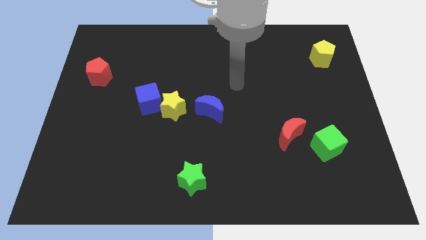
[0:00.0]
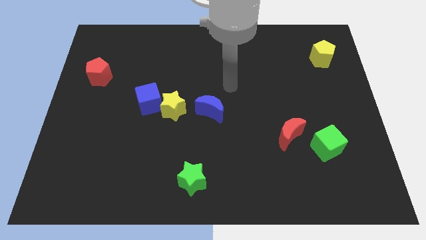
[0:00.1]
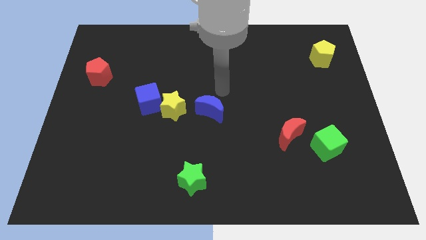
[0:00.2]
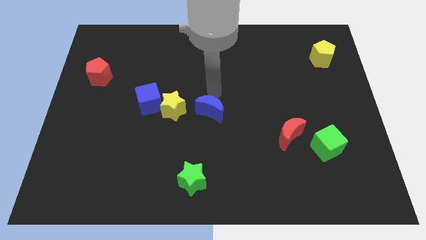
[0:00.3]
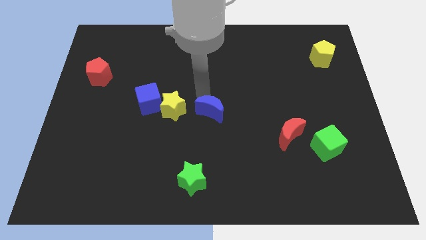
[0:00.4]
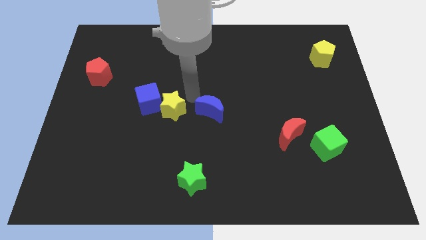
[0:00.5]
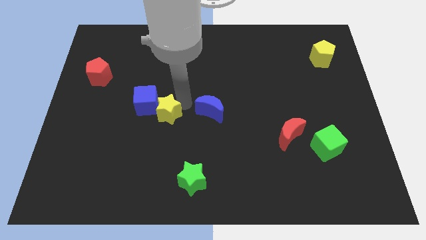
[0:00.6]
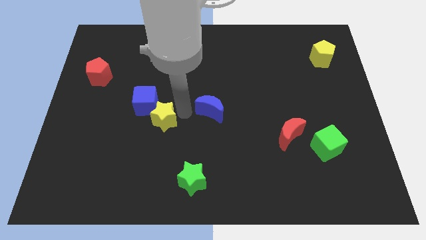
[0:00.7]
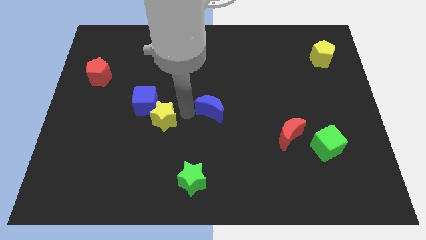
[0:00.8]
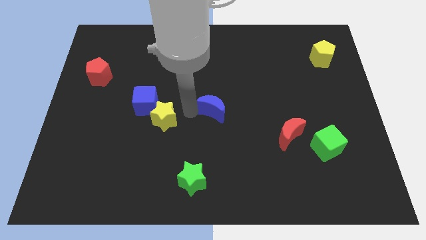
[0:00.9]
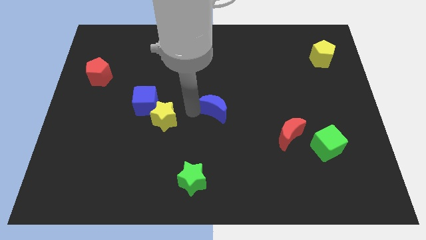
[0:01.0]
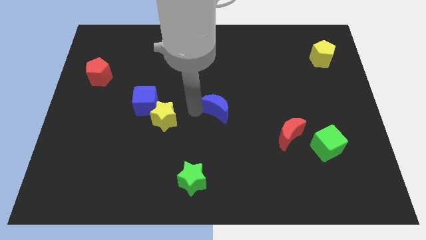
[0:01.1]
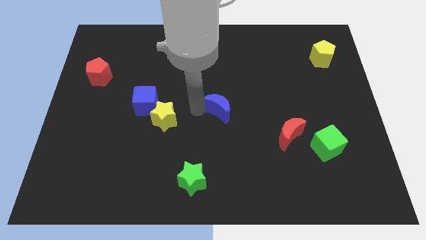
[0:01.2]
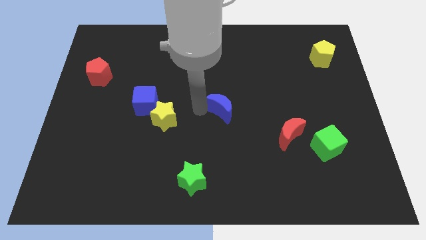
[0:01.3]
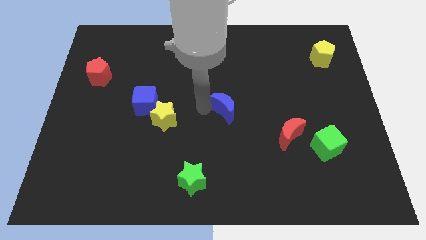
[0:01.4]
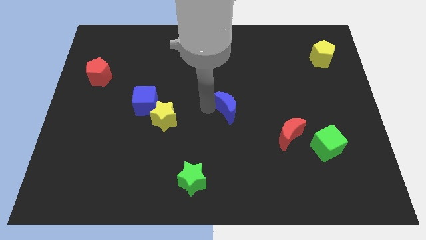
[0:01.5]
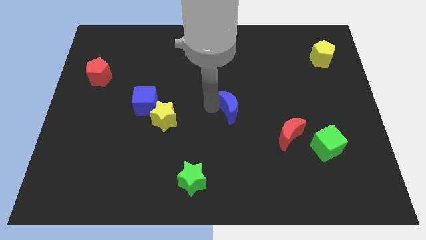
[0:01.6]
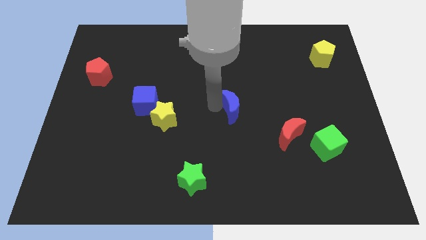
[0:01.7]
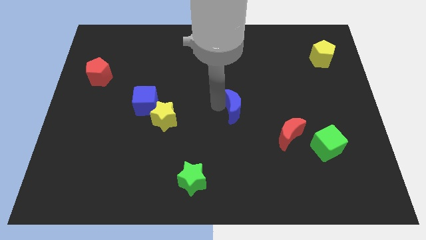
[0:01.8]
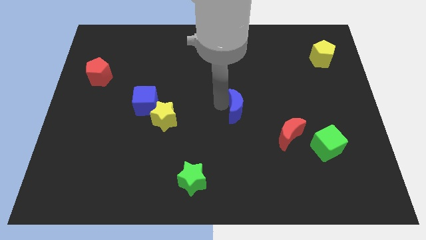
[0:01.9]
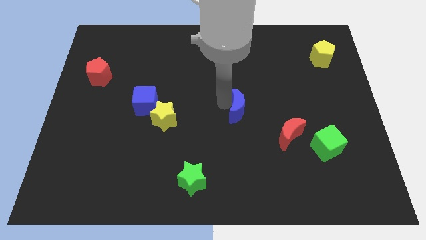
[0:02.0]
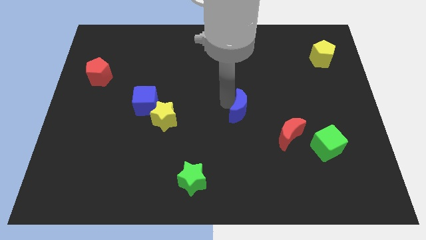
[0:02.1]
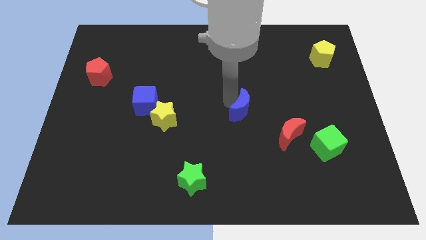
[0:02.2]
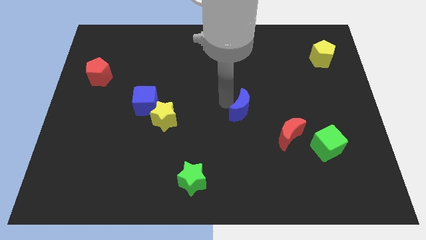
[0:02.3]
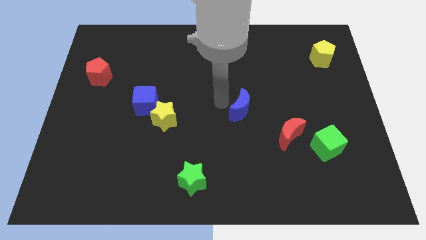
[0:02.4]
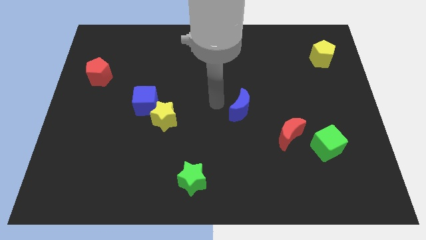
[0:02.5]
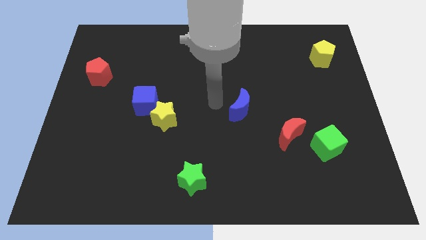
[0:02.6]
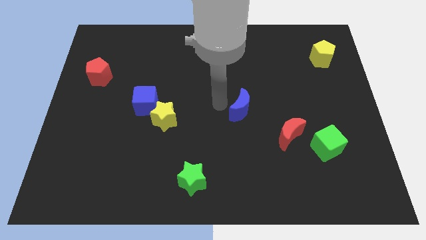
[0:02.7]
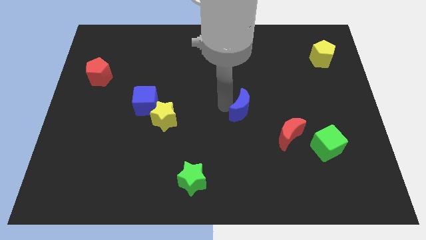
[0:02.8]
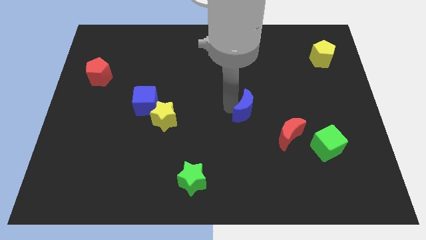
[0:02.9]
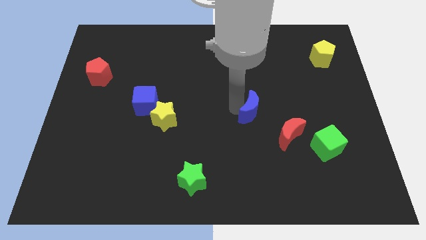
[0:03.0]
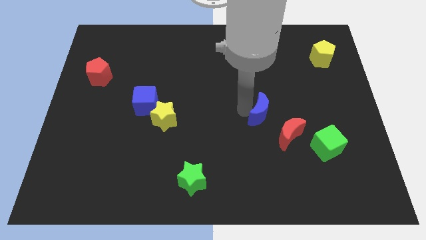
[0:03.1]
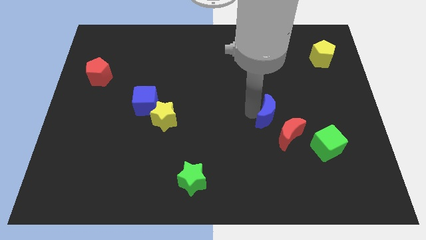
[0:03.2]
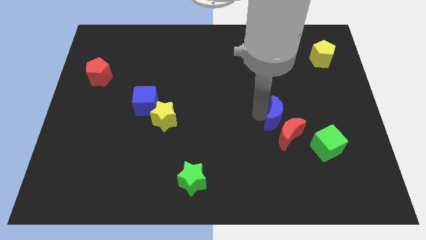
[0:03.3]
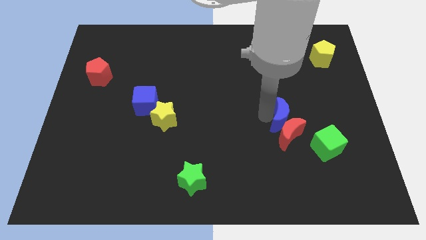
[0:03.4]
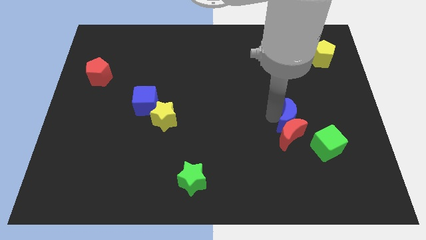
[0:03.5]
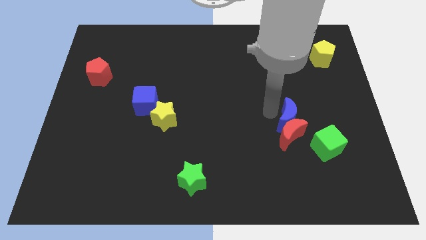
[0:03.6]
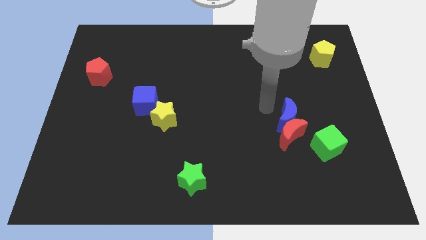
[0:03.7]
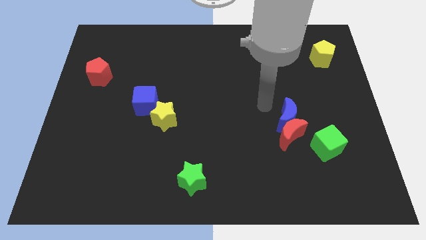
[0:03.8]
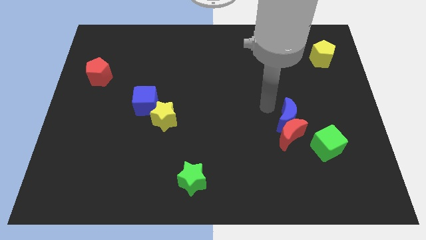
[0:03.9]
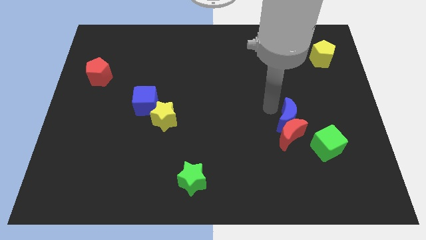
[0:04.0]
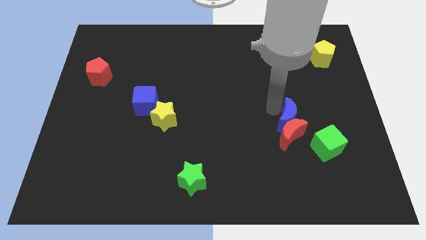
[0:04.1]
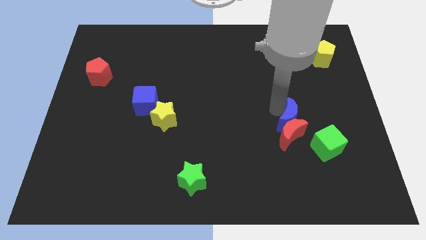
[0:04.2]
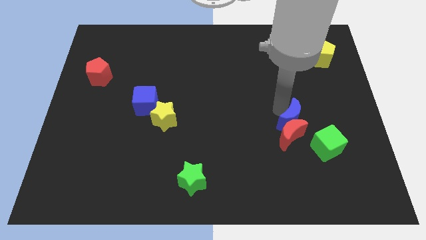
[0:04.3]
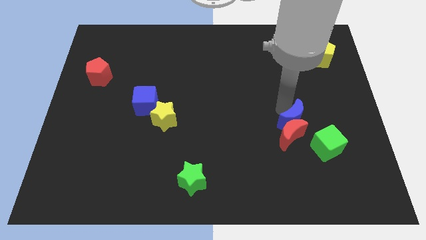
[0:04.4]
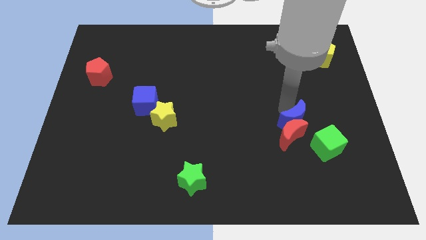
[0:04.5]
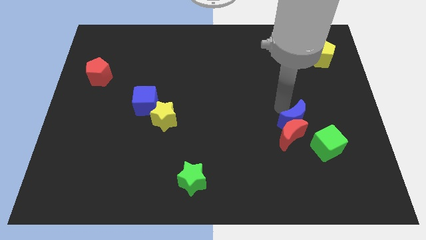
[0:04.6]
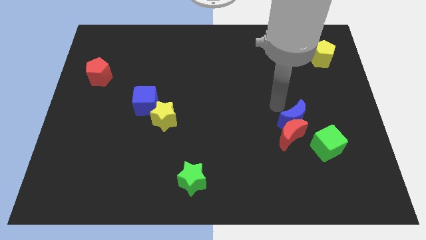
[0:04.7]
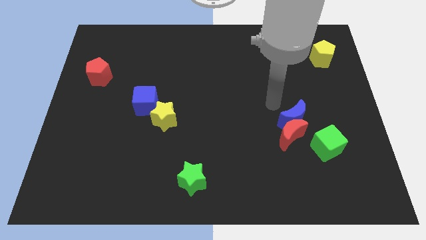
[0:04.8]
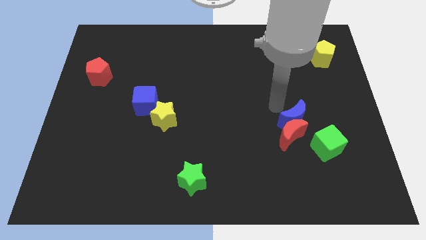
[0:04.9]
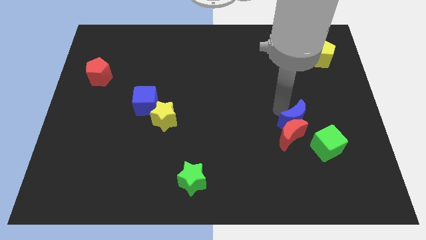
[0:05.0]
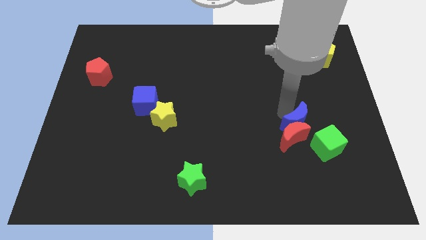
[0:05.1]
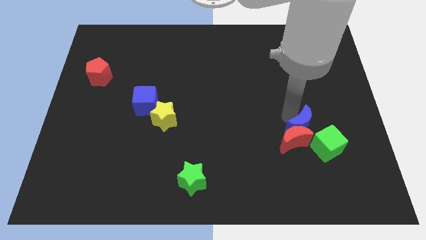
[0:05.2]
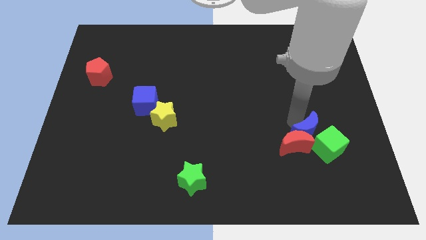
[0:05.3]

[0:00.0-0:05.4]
slide the blue moon next to the green cube

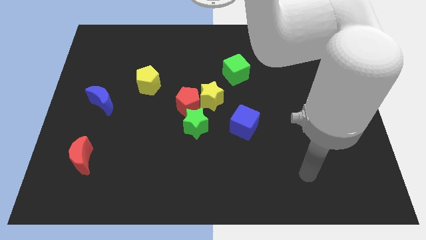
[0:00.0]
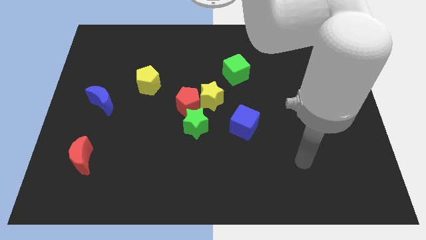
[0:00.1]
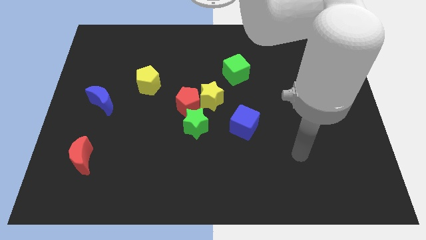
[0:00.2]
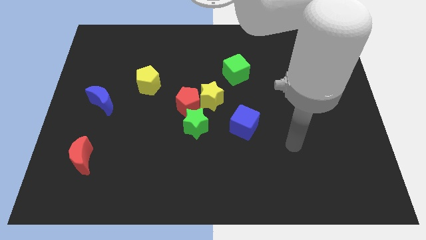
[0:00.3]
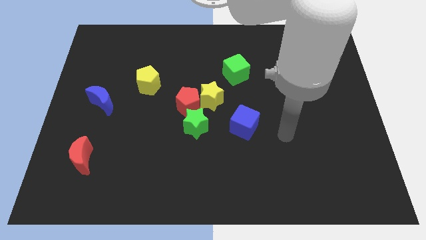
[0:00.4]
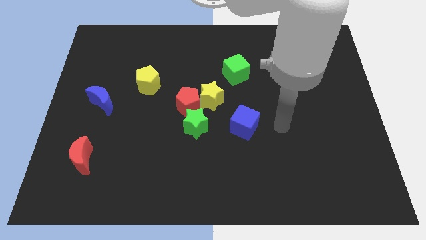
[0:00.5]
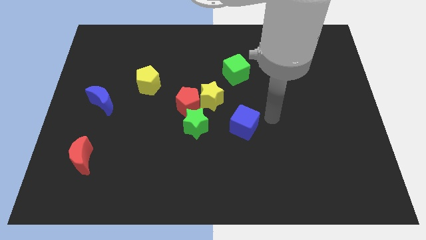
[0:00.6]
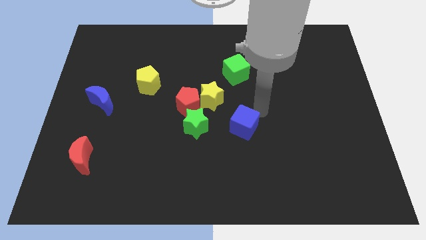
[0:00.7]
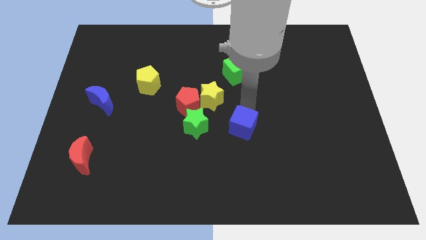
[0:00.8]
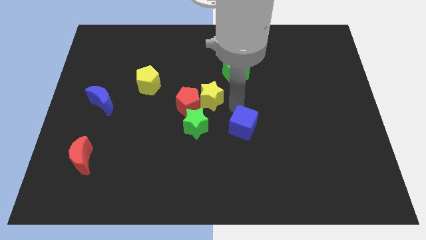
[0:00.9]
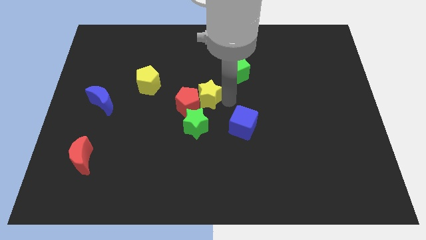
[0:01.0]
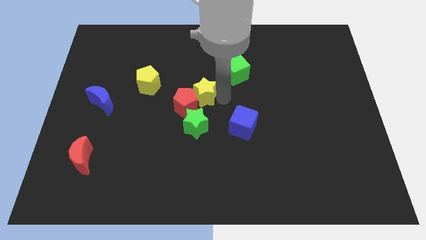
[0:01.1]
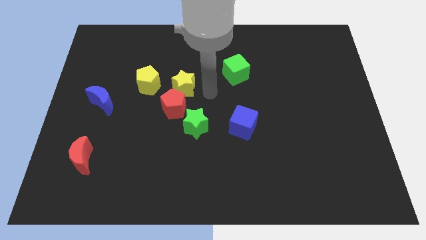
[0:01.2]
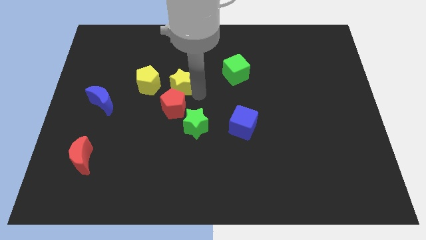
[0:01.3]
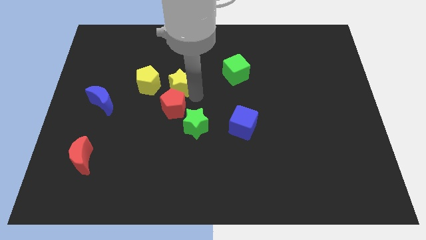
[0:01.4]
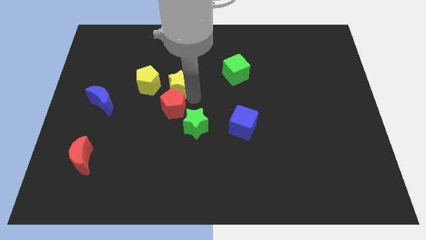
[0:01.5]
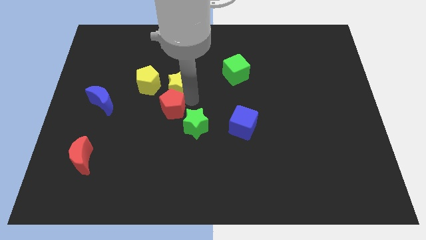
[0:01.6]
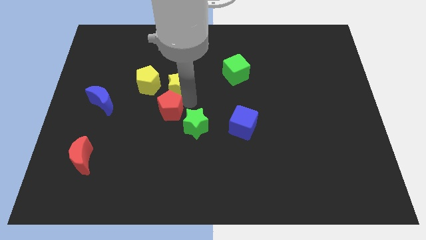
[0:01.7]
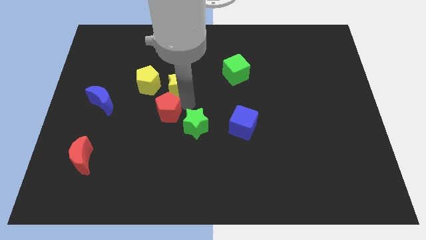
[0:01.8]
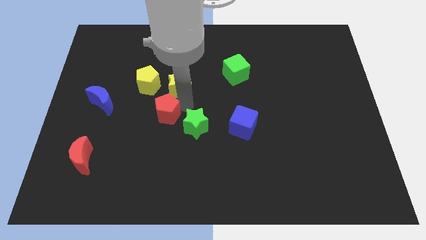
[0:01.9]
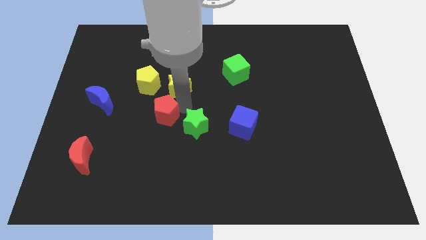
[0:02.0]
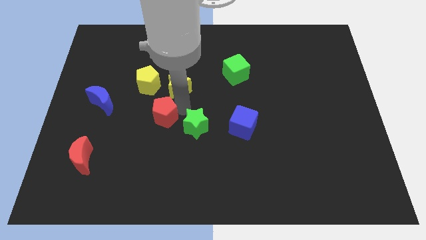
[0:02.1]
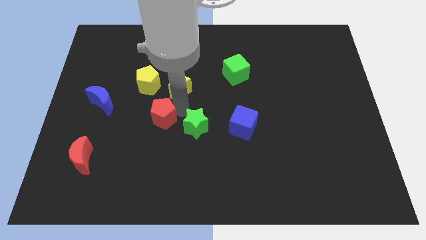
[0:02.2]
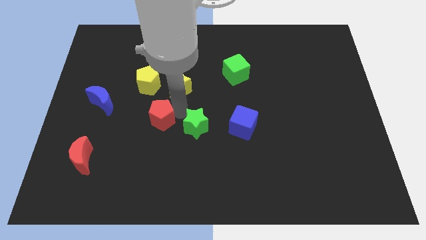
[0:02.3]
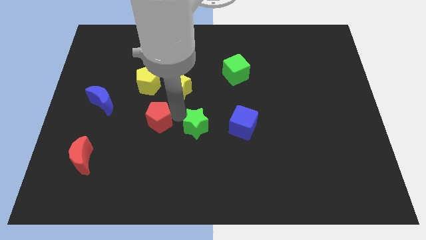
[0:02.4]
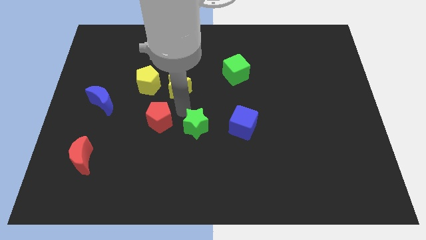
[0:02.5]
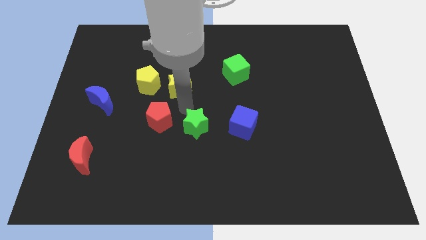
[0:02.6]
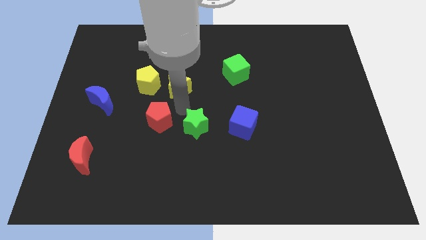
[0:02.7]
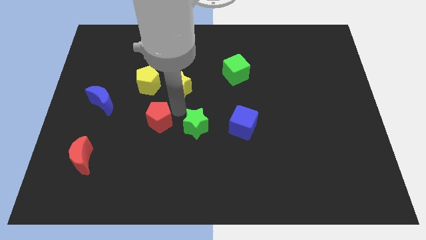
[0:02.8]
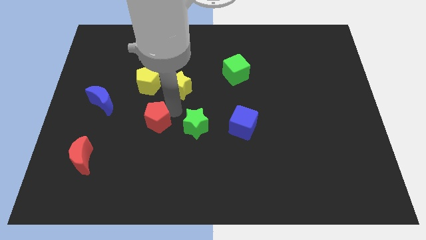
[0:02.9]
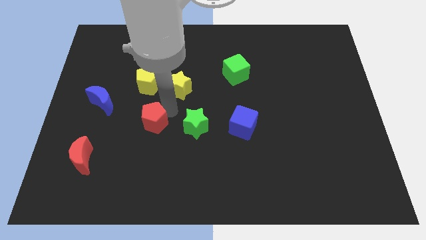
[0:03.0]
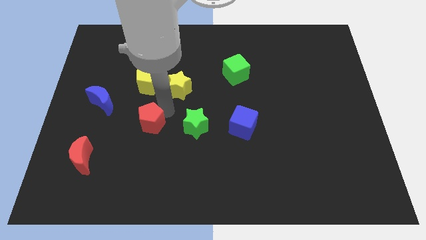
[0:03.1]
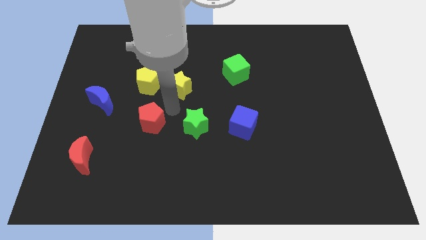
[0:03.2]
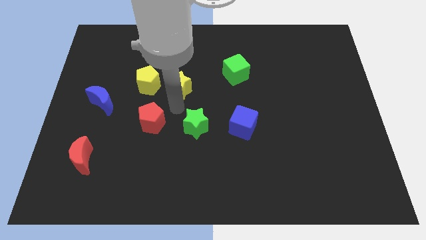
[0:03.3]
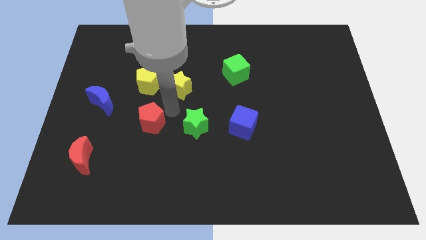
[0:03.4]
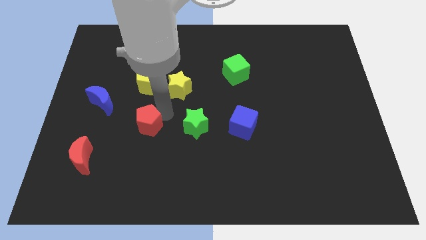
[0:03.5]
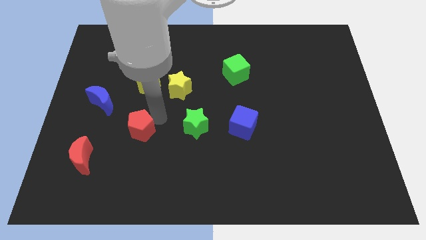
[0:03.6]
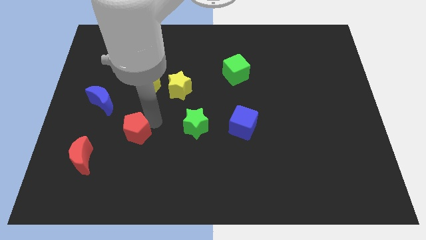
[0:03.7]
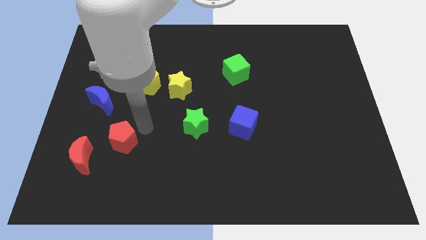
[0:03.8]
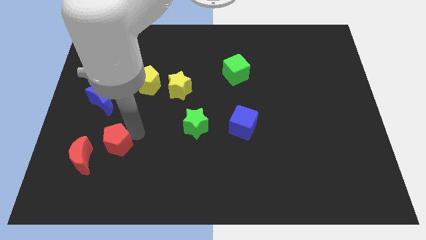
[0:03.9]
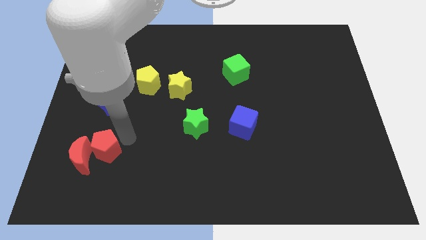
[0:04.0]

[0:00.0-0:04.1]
move the red pentagon to the red moon
